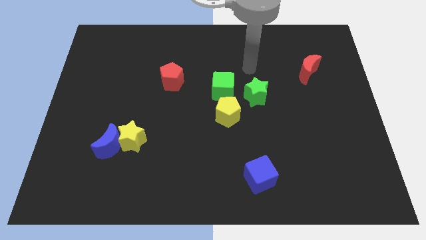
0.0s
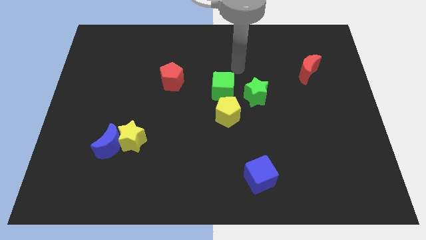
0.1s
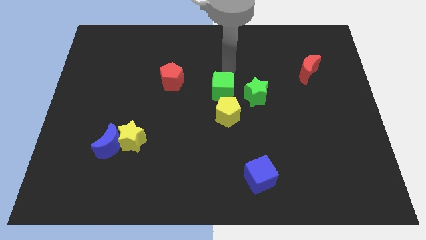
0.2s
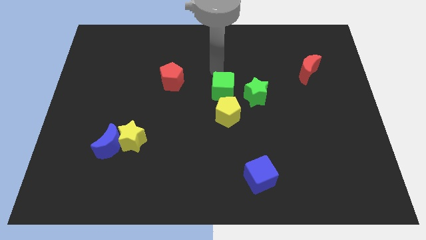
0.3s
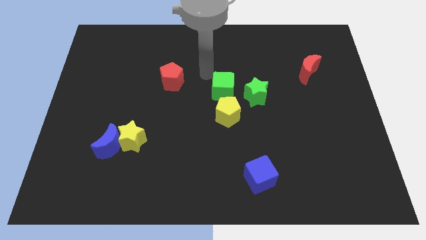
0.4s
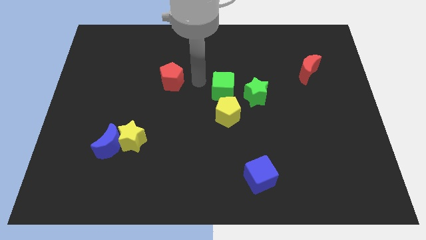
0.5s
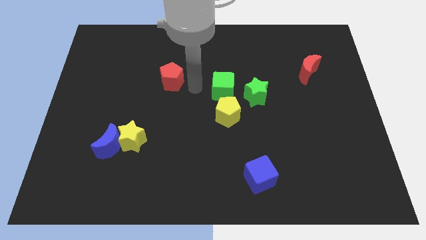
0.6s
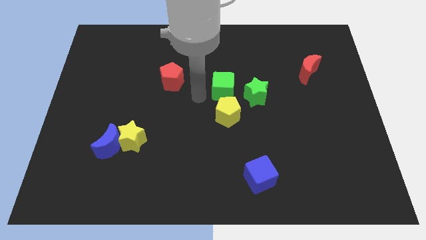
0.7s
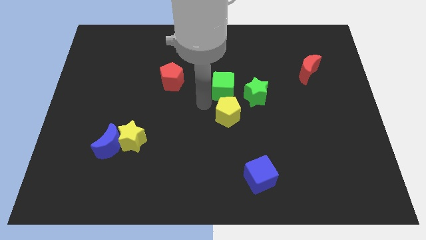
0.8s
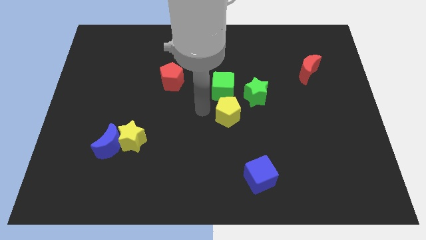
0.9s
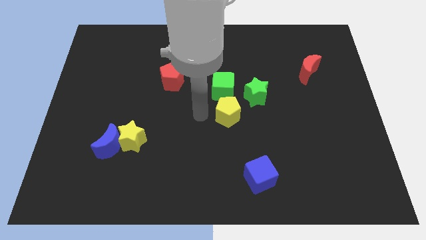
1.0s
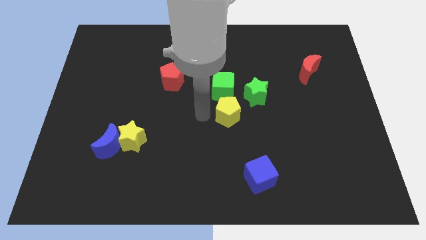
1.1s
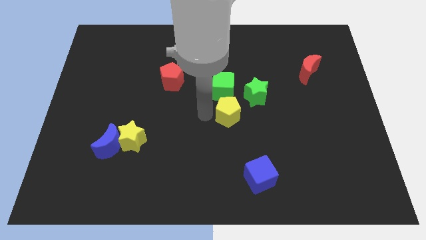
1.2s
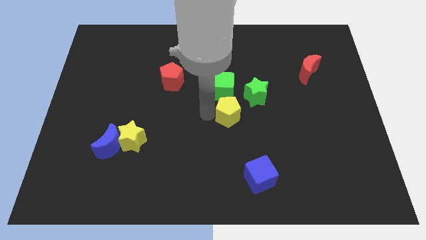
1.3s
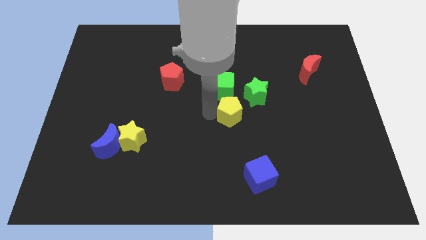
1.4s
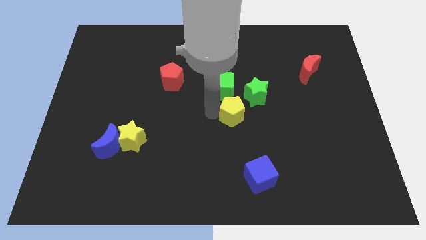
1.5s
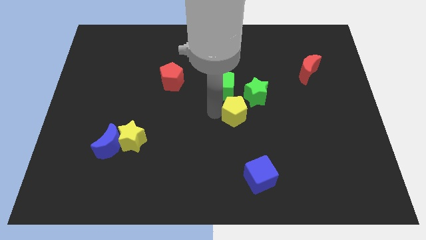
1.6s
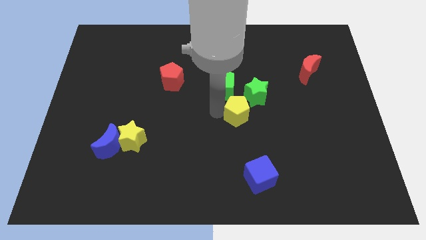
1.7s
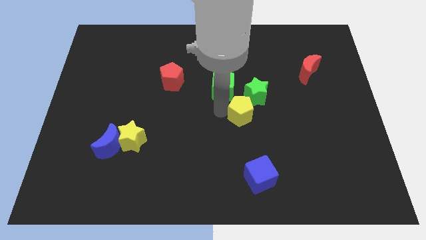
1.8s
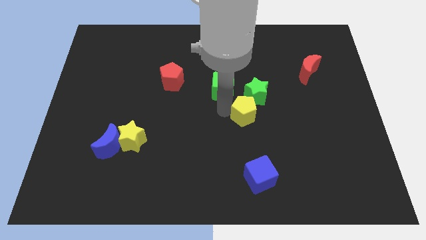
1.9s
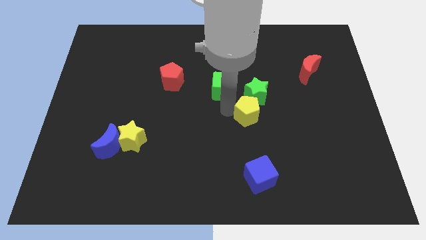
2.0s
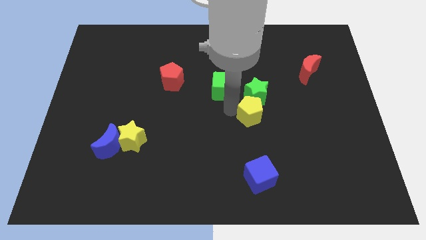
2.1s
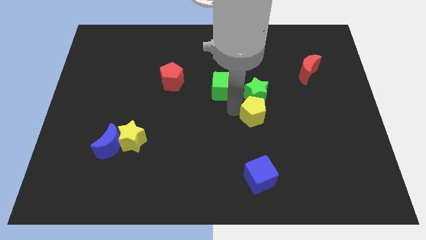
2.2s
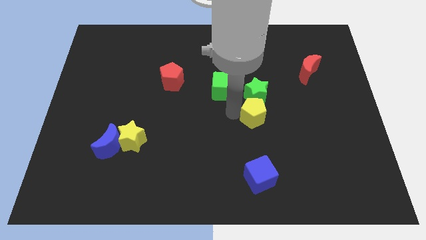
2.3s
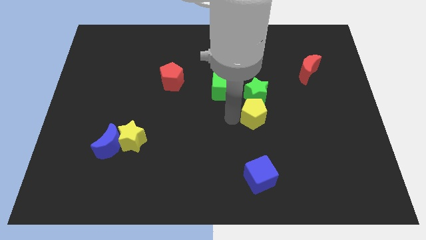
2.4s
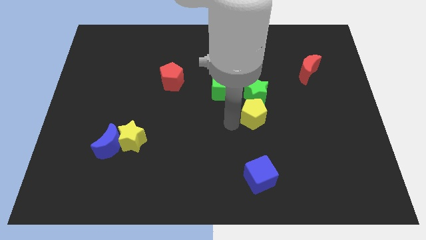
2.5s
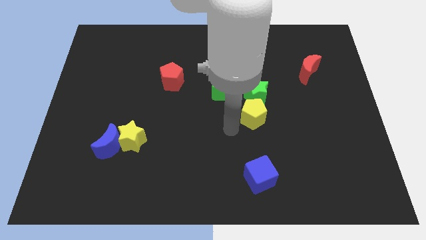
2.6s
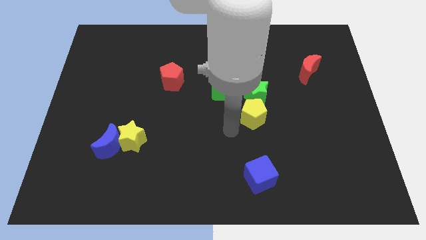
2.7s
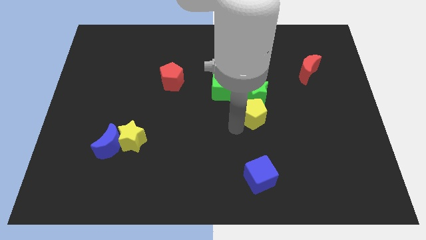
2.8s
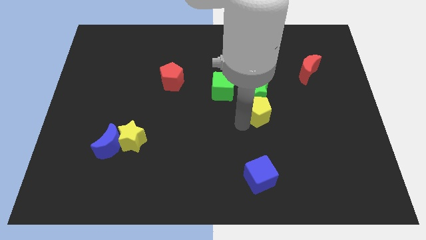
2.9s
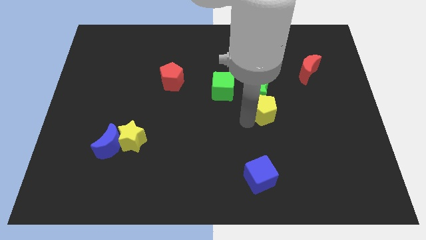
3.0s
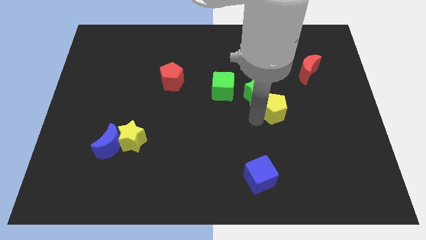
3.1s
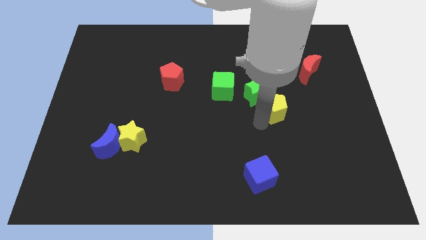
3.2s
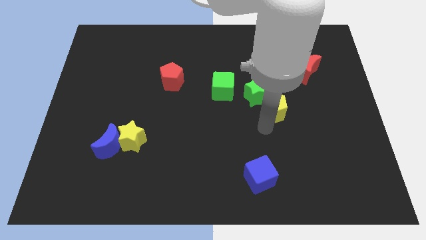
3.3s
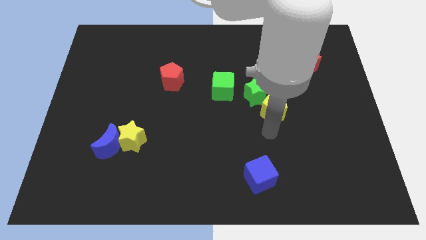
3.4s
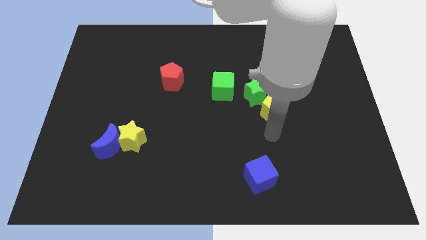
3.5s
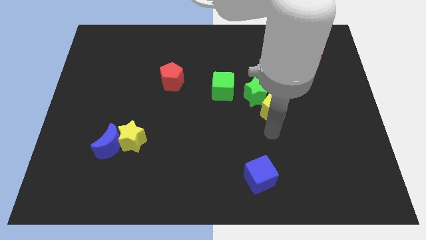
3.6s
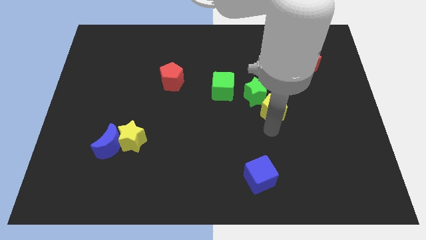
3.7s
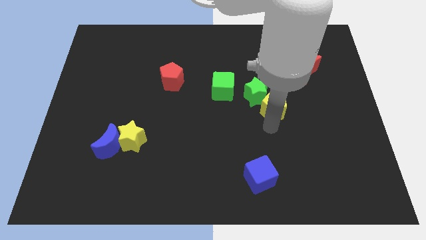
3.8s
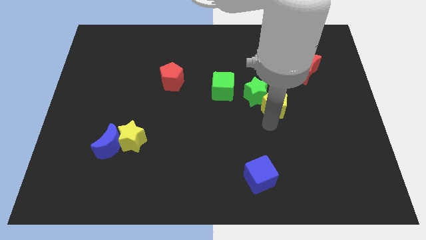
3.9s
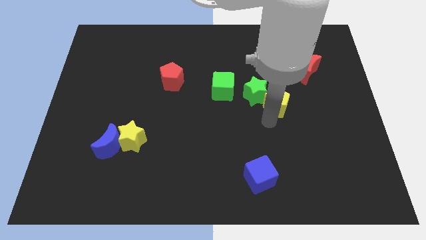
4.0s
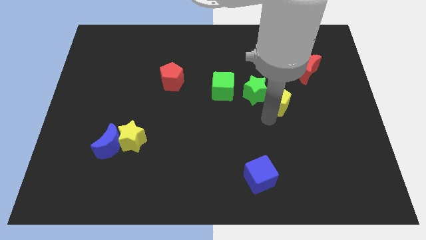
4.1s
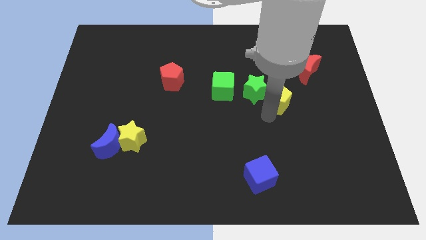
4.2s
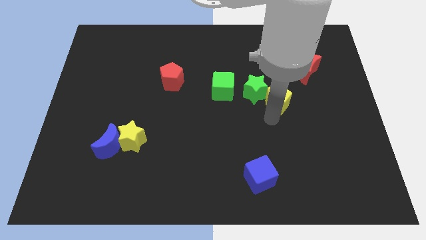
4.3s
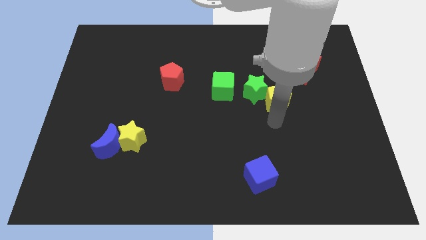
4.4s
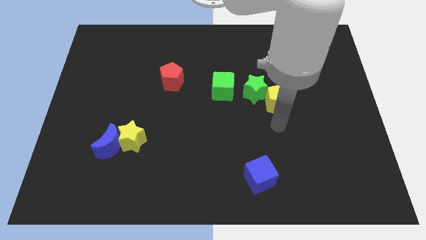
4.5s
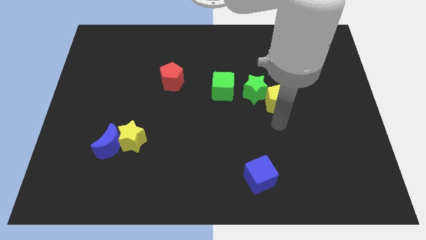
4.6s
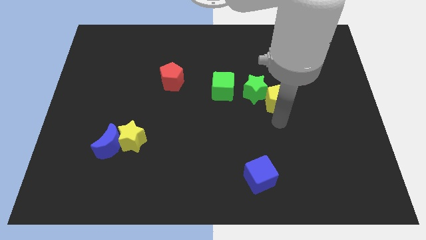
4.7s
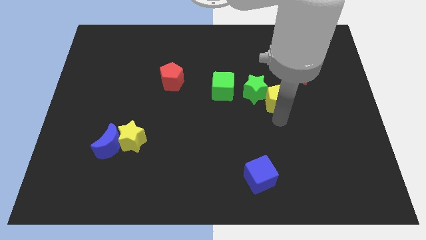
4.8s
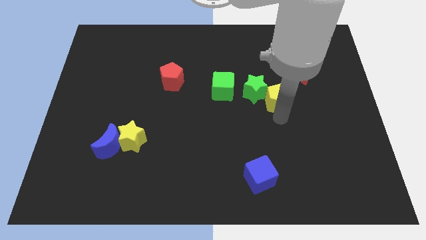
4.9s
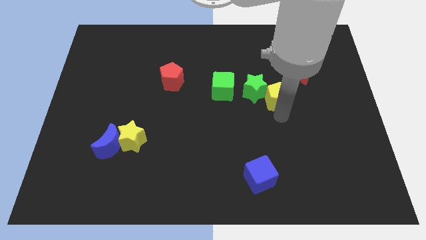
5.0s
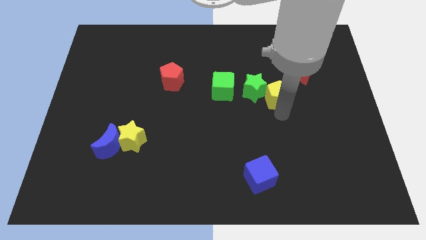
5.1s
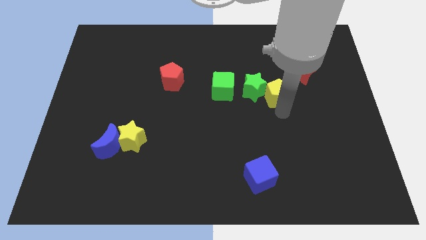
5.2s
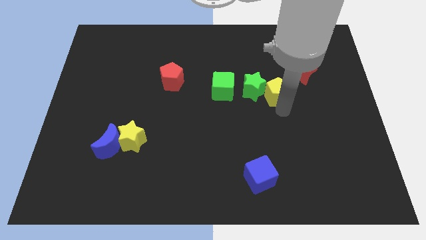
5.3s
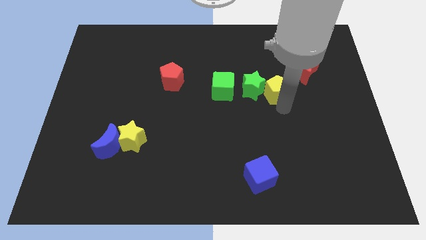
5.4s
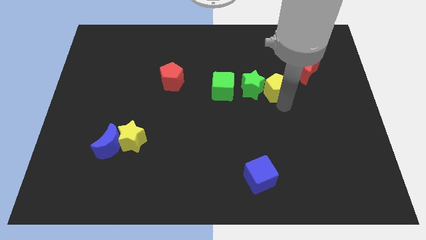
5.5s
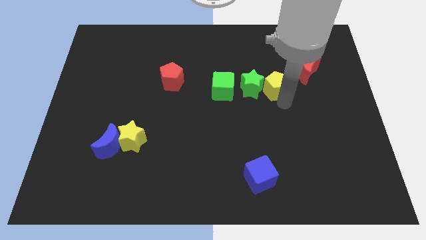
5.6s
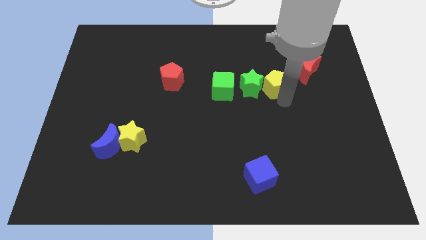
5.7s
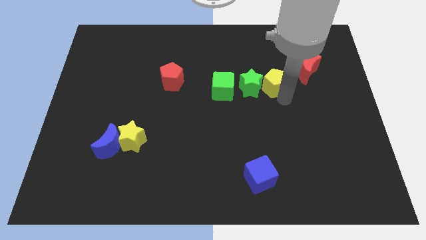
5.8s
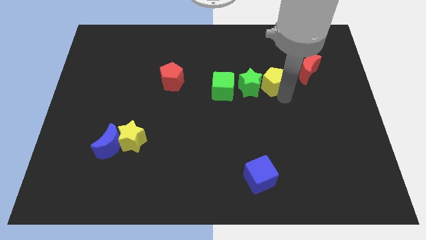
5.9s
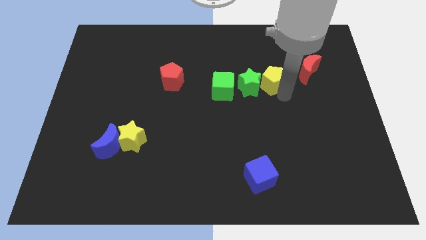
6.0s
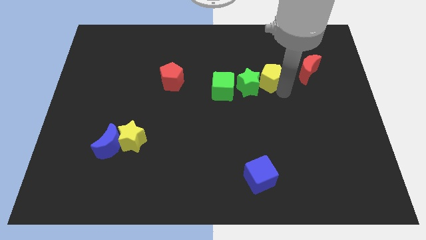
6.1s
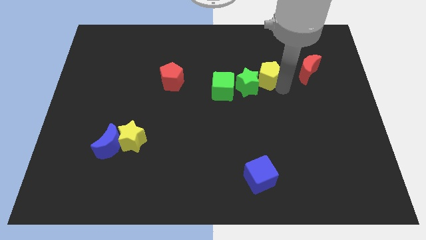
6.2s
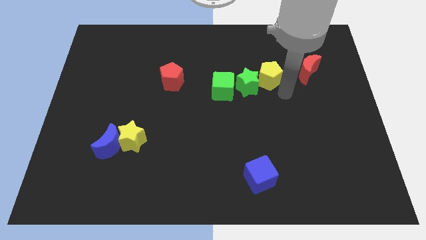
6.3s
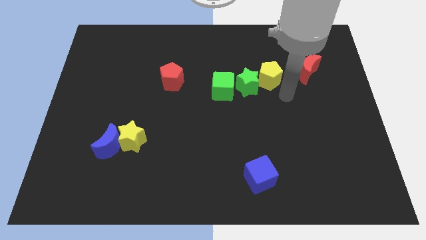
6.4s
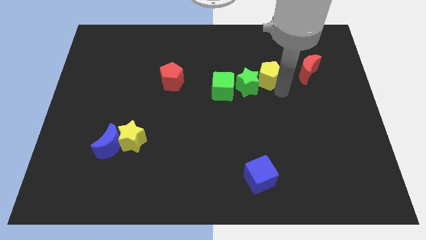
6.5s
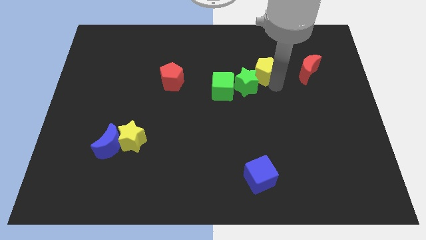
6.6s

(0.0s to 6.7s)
move the yellow pentagon above the green star

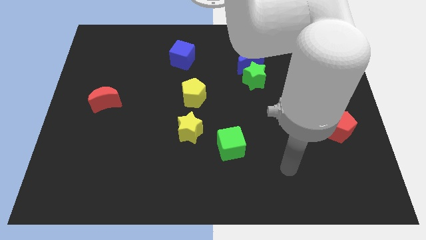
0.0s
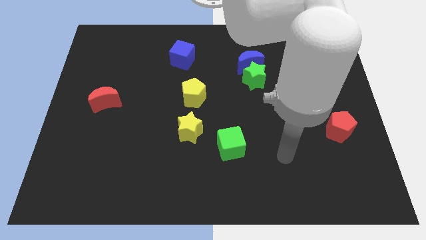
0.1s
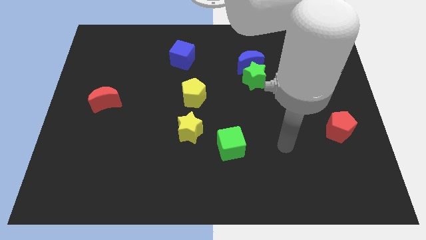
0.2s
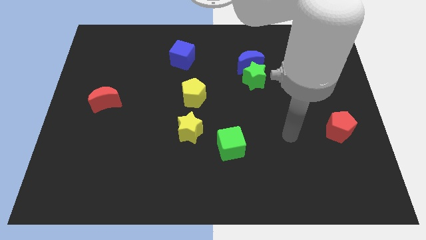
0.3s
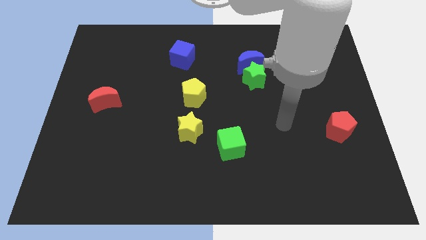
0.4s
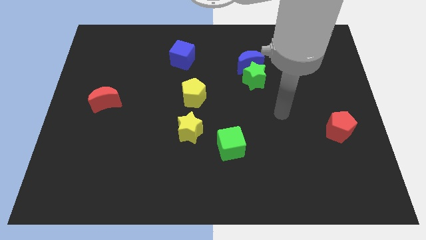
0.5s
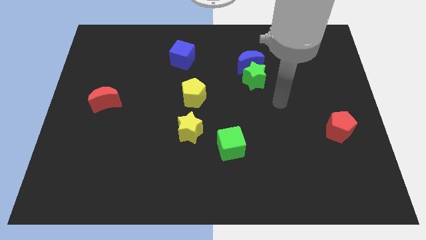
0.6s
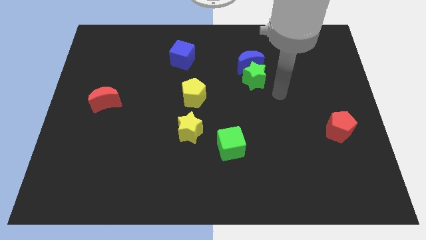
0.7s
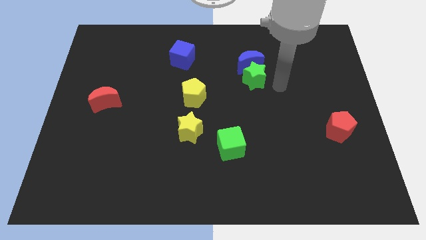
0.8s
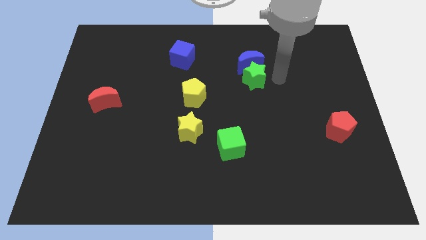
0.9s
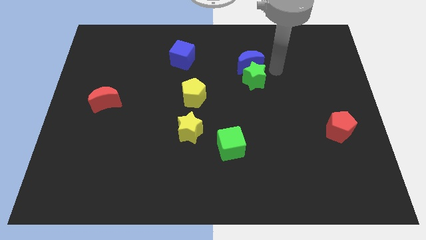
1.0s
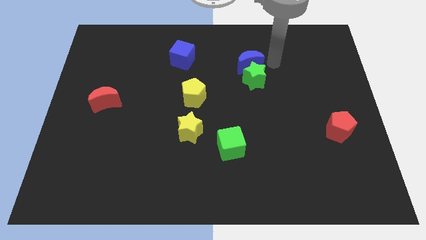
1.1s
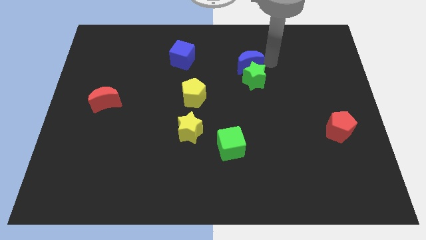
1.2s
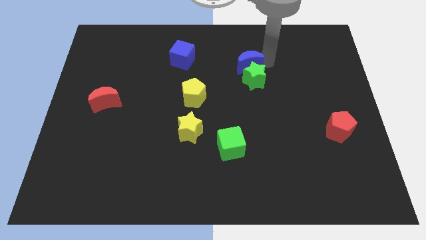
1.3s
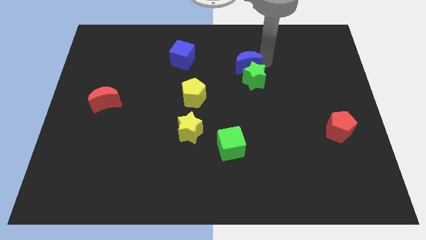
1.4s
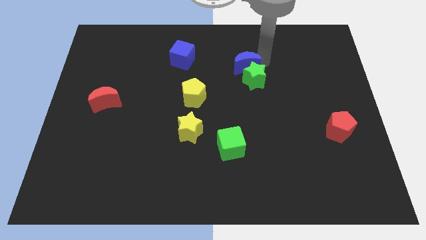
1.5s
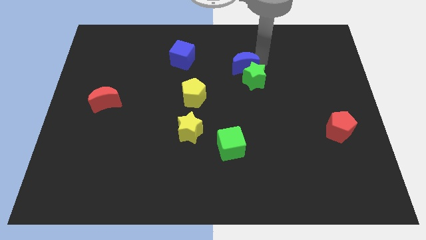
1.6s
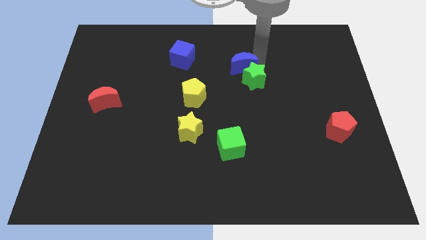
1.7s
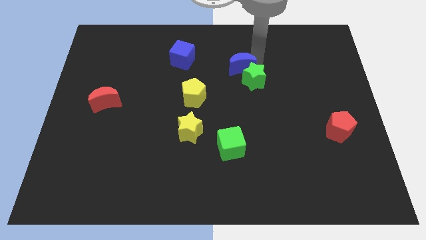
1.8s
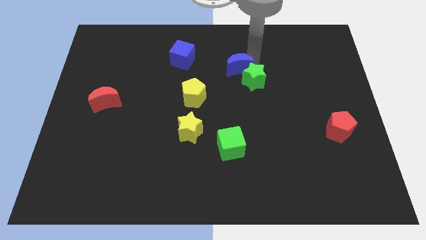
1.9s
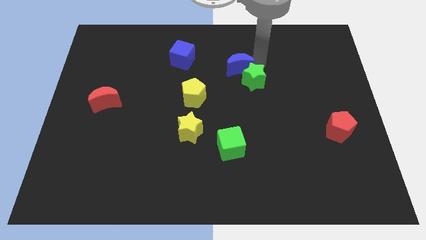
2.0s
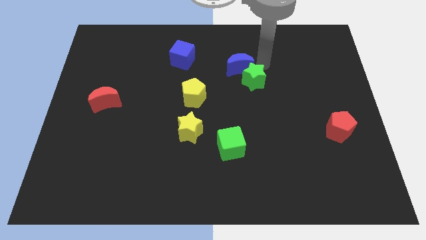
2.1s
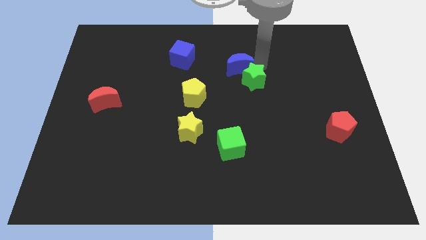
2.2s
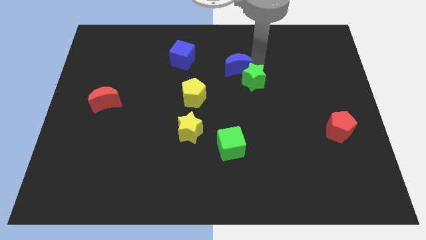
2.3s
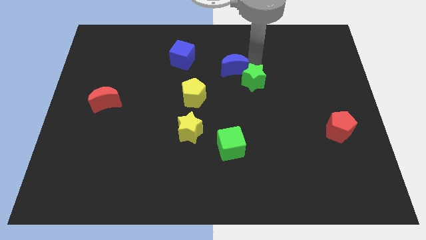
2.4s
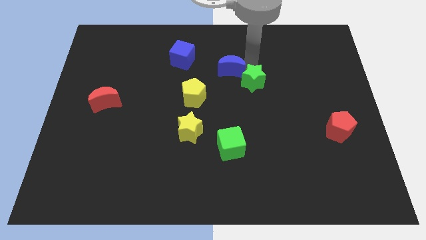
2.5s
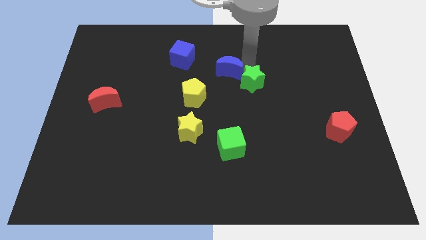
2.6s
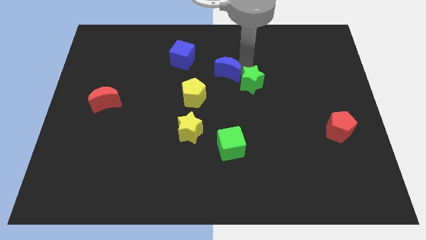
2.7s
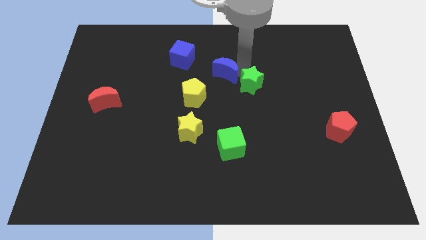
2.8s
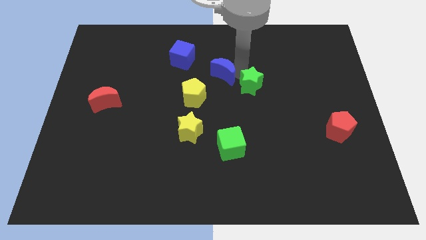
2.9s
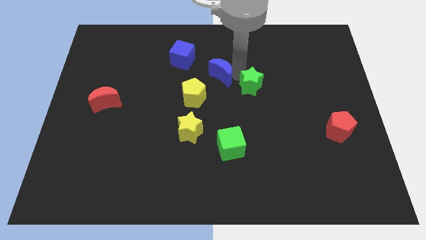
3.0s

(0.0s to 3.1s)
push the blue moon to the bottom right of the blue cube
